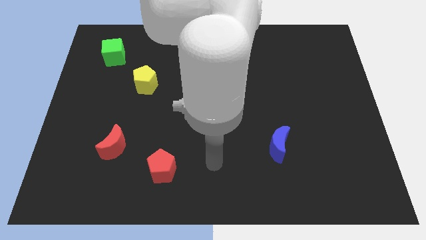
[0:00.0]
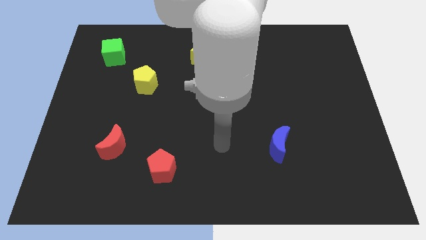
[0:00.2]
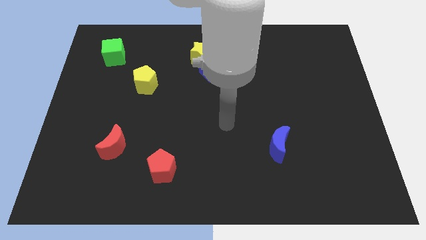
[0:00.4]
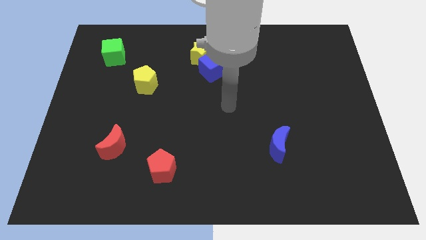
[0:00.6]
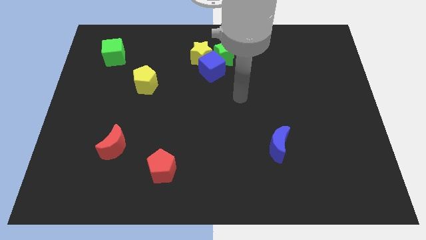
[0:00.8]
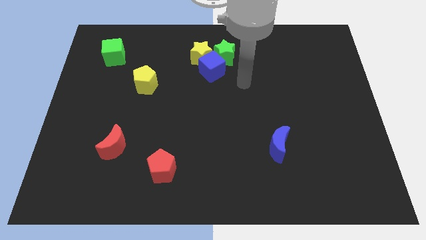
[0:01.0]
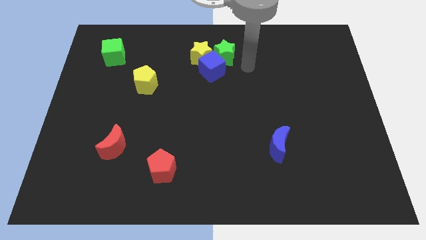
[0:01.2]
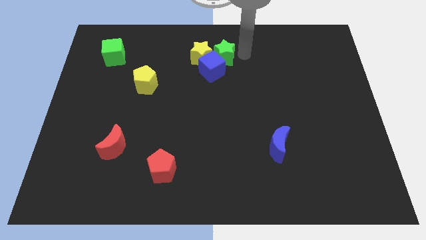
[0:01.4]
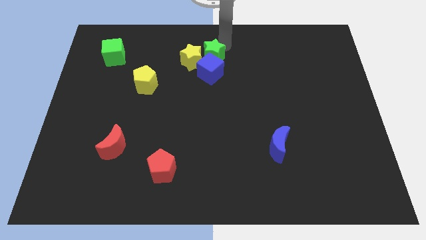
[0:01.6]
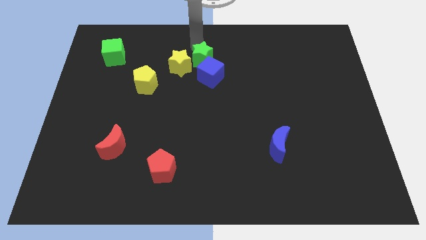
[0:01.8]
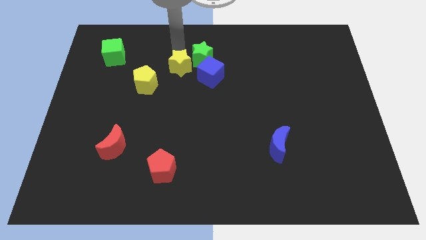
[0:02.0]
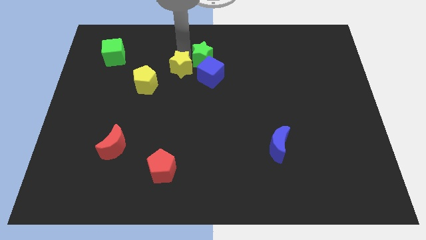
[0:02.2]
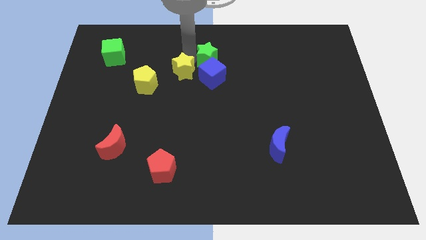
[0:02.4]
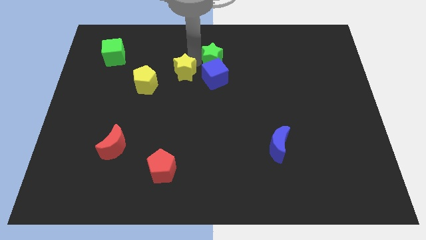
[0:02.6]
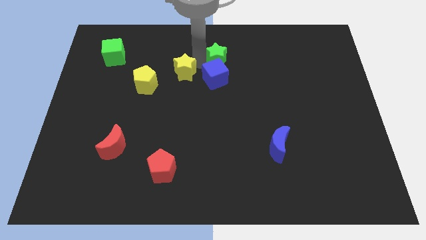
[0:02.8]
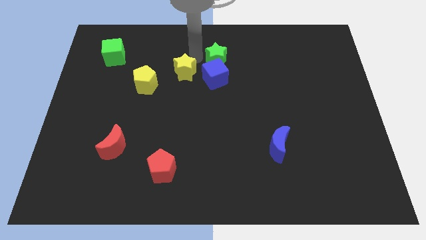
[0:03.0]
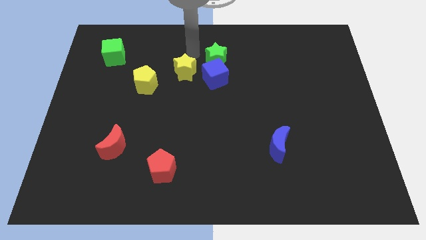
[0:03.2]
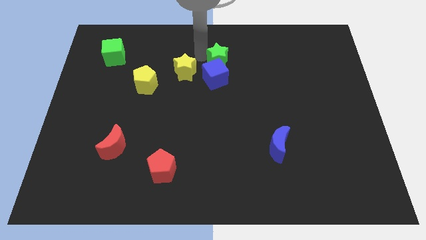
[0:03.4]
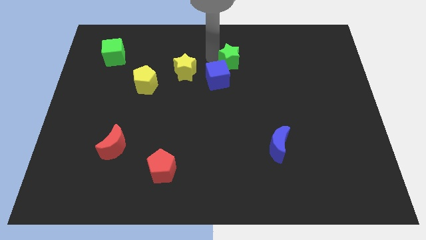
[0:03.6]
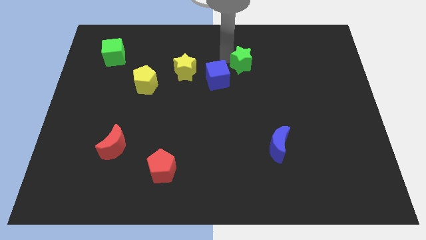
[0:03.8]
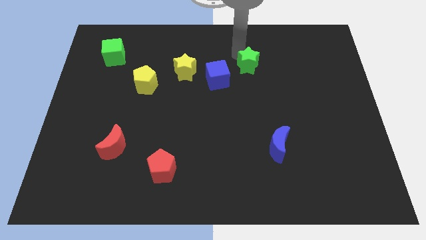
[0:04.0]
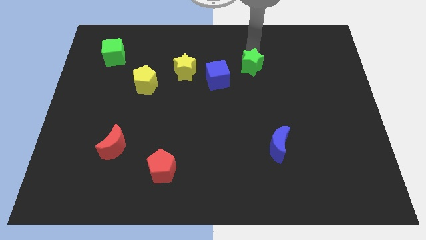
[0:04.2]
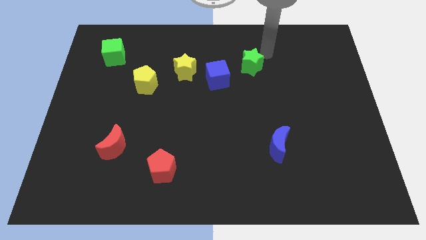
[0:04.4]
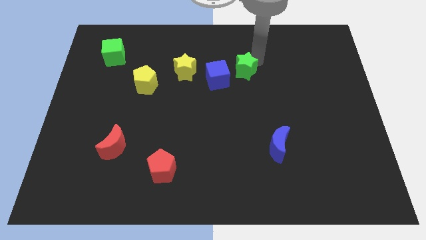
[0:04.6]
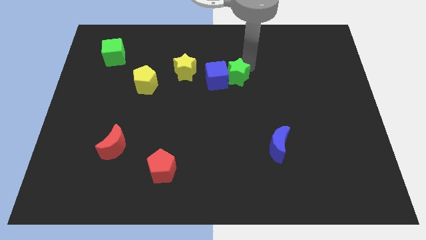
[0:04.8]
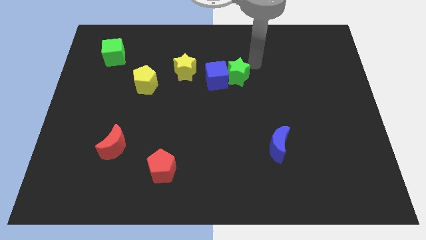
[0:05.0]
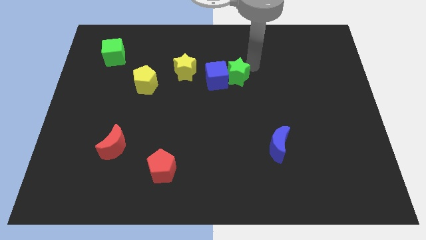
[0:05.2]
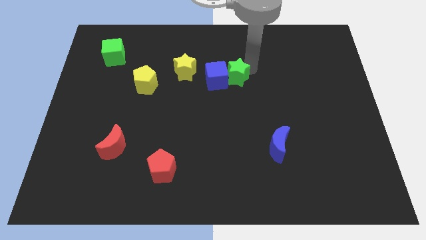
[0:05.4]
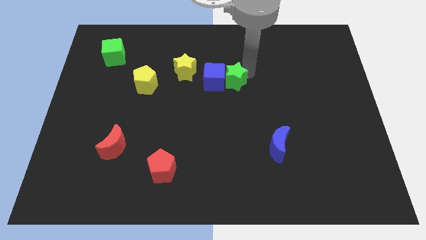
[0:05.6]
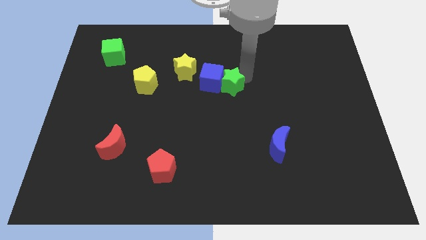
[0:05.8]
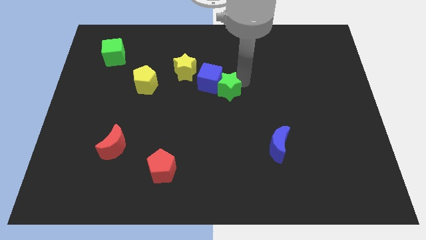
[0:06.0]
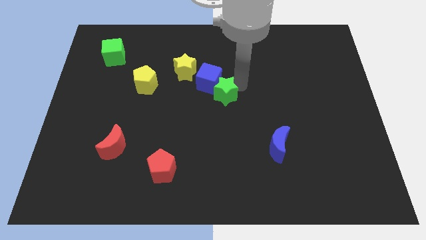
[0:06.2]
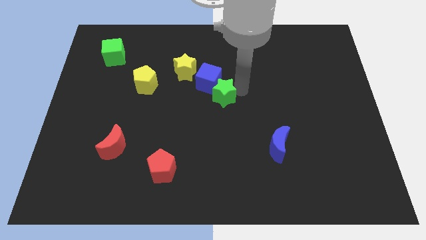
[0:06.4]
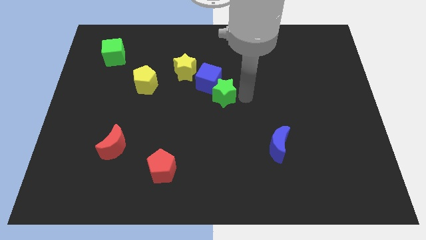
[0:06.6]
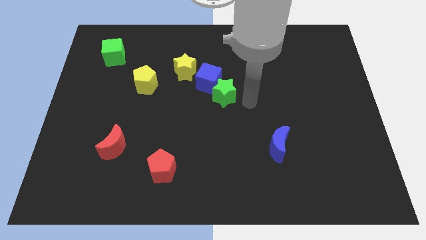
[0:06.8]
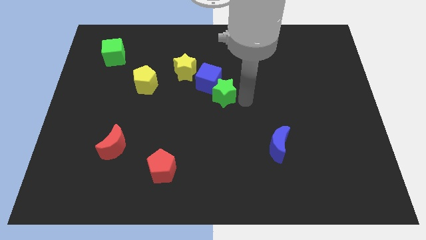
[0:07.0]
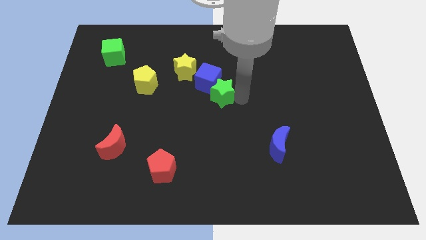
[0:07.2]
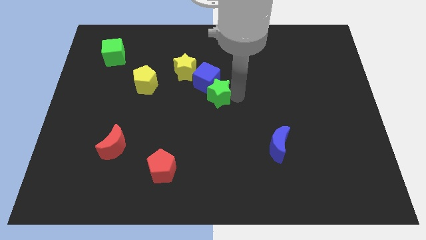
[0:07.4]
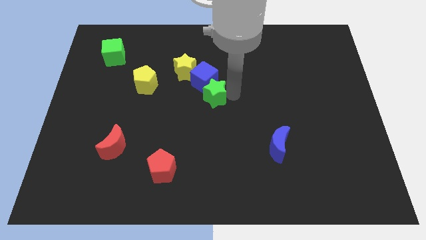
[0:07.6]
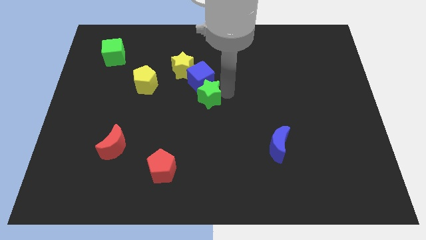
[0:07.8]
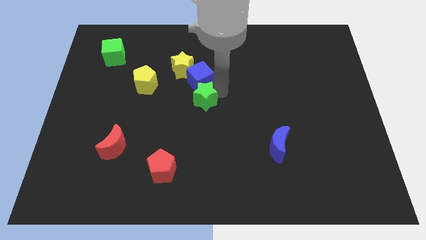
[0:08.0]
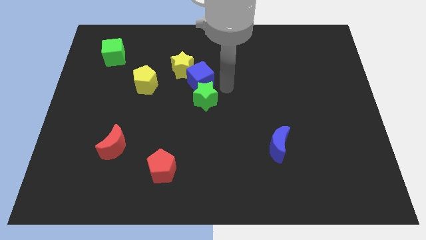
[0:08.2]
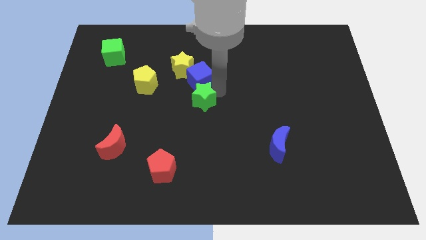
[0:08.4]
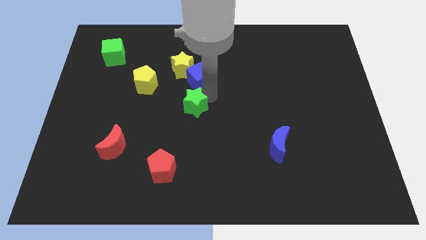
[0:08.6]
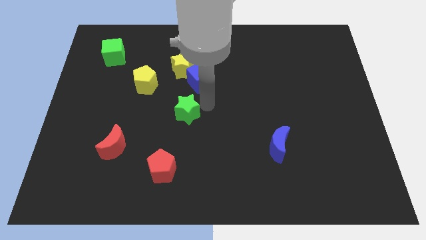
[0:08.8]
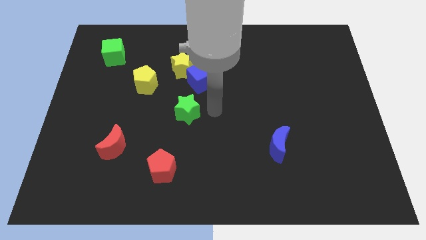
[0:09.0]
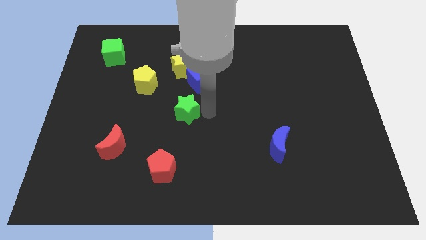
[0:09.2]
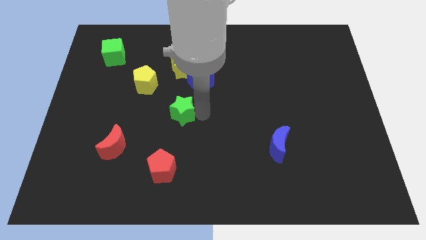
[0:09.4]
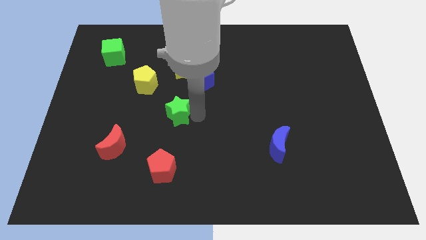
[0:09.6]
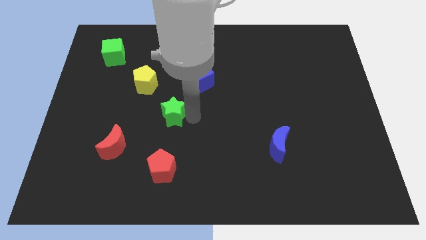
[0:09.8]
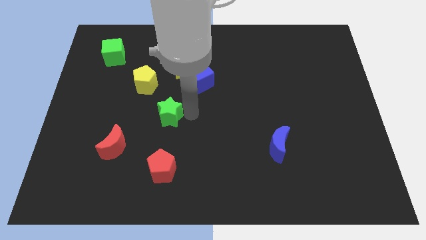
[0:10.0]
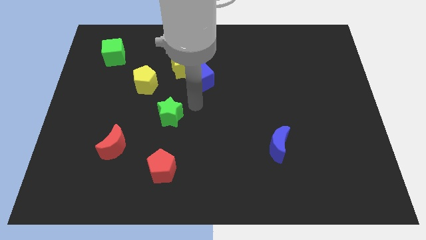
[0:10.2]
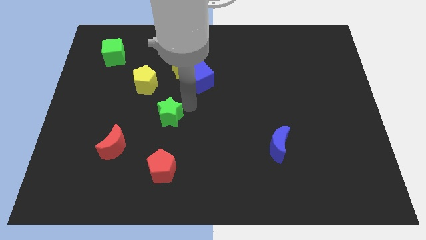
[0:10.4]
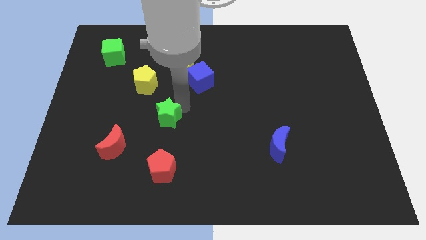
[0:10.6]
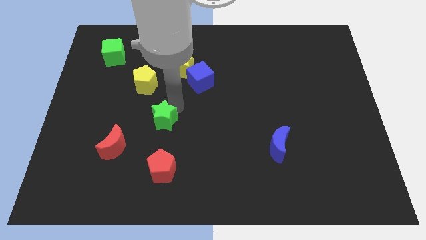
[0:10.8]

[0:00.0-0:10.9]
push the green star to the top right of the red moon

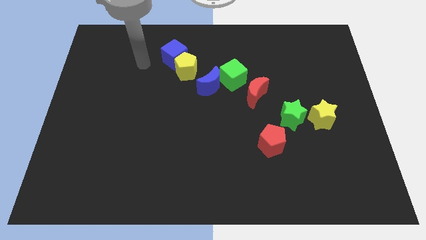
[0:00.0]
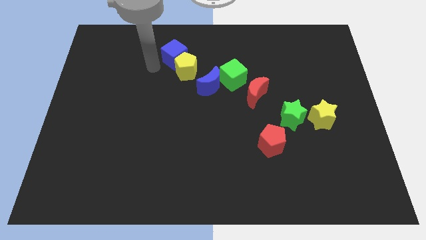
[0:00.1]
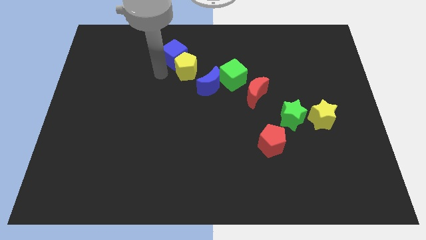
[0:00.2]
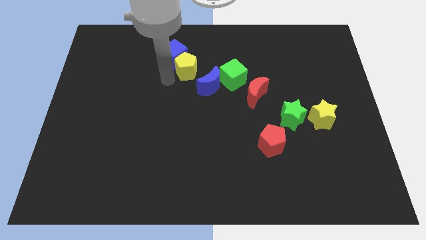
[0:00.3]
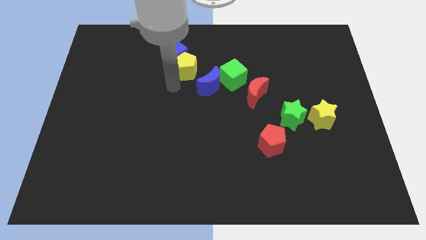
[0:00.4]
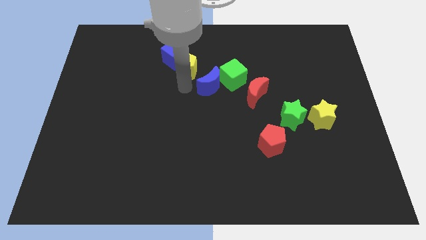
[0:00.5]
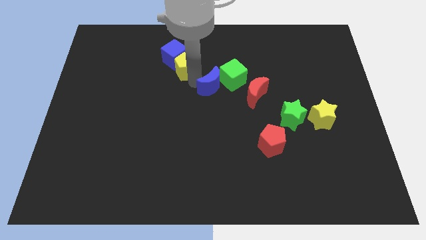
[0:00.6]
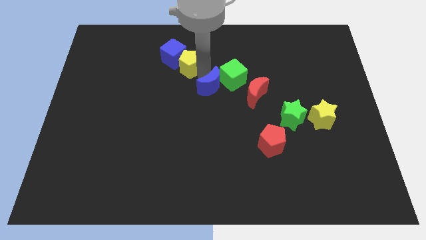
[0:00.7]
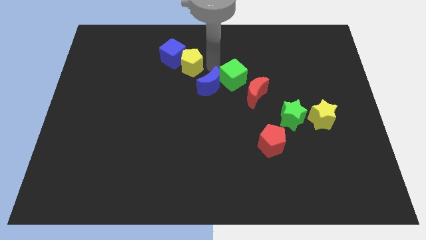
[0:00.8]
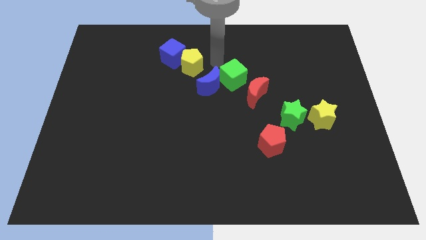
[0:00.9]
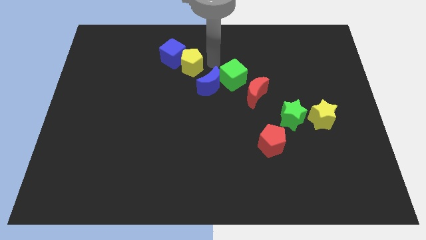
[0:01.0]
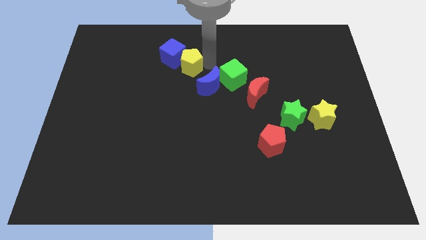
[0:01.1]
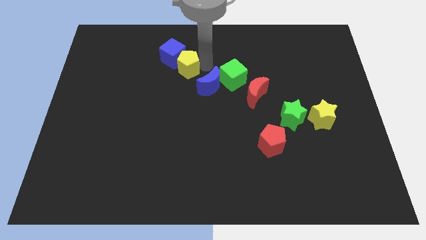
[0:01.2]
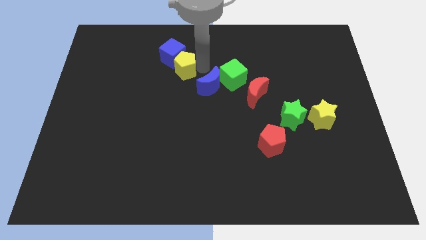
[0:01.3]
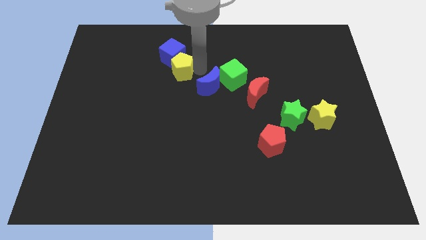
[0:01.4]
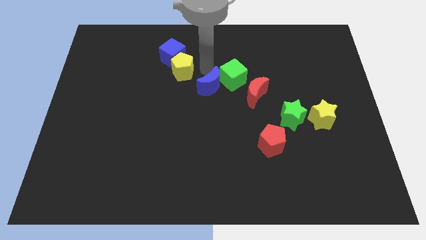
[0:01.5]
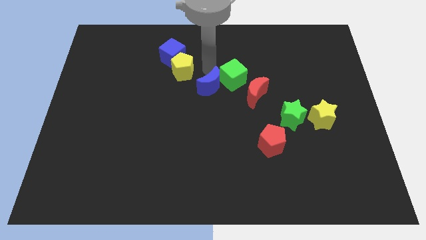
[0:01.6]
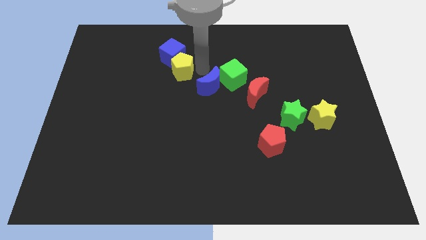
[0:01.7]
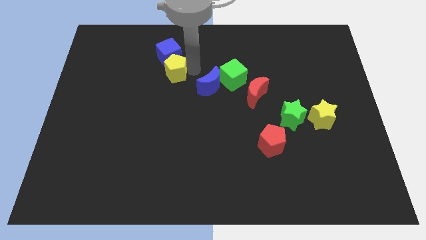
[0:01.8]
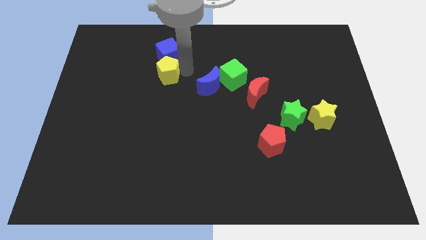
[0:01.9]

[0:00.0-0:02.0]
put the yellow pentagon to the bottom left side of the blue cube
